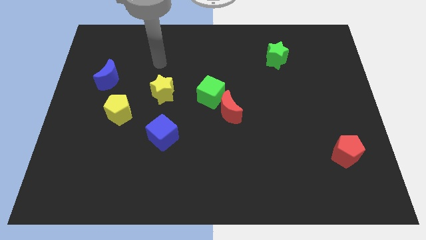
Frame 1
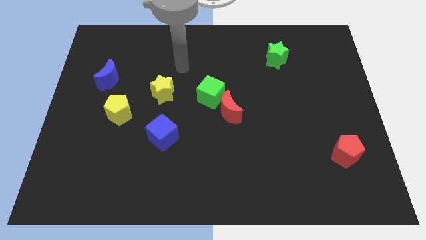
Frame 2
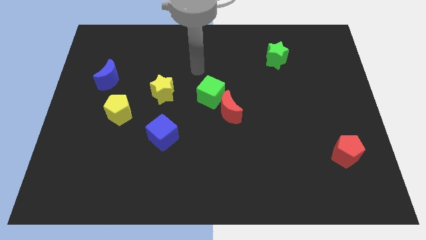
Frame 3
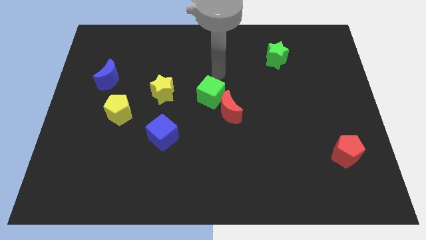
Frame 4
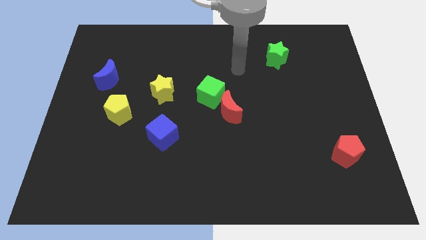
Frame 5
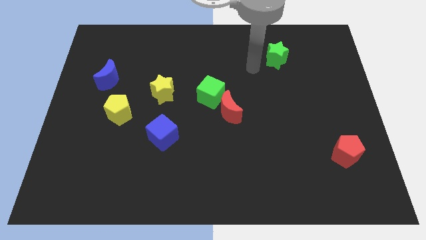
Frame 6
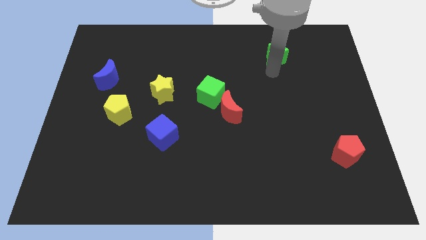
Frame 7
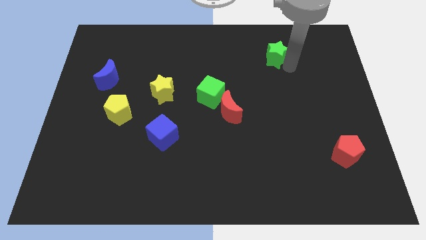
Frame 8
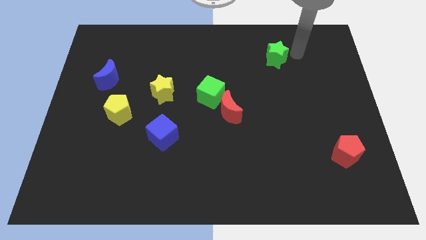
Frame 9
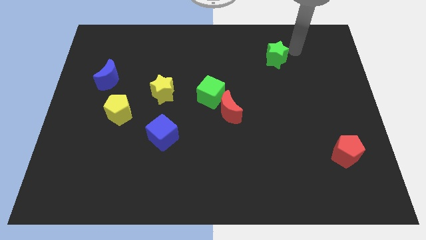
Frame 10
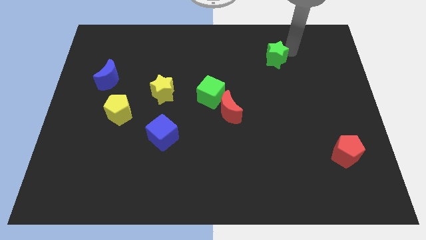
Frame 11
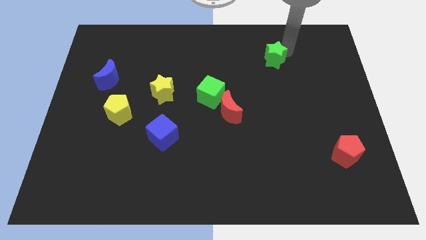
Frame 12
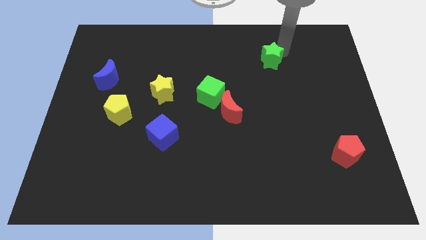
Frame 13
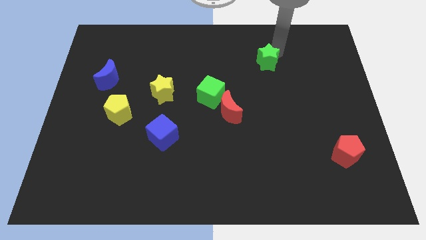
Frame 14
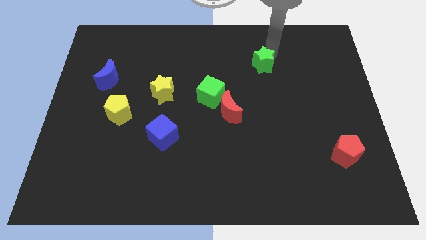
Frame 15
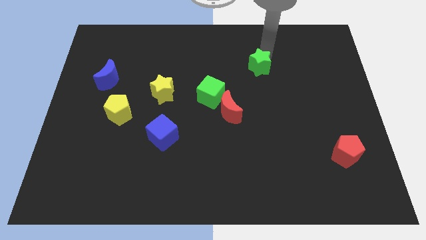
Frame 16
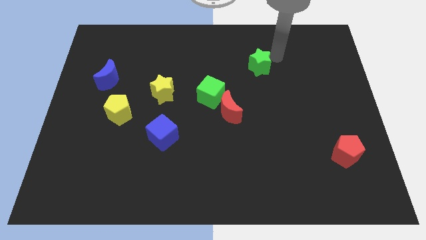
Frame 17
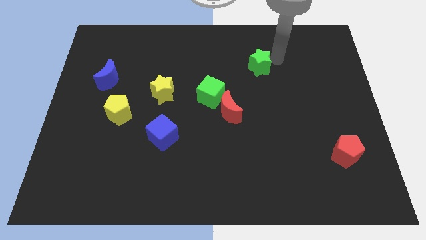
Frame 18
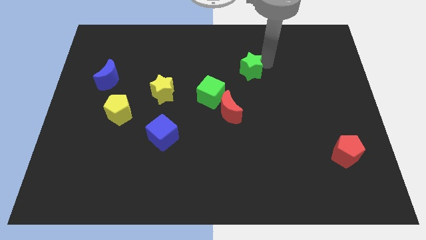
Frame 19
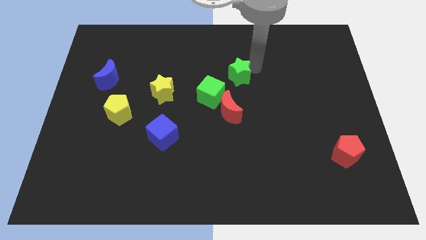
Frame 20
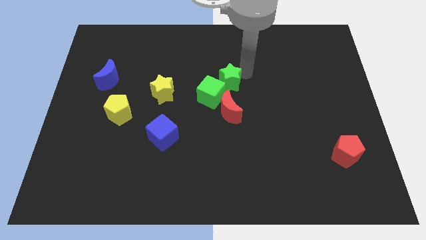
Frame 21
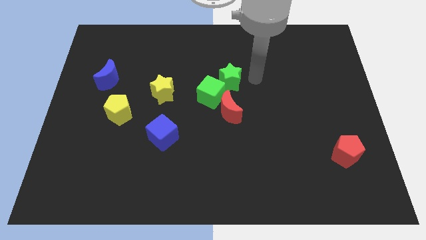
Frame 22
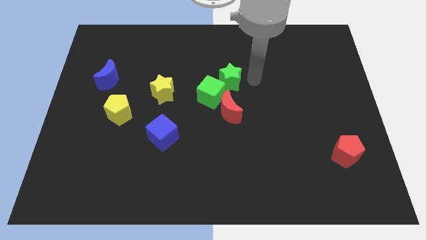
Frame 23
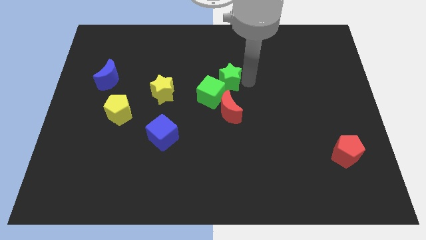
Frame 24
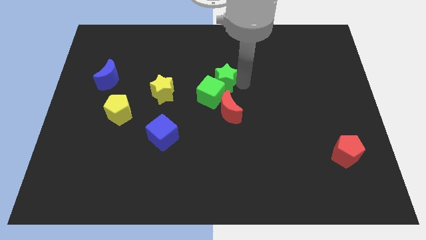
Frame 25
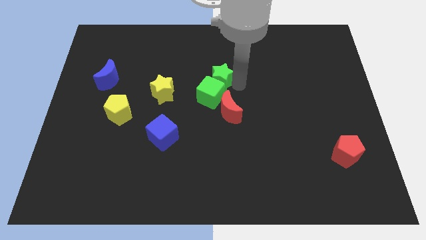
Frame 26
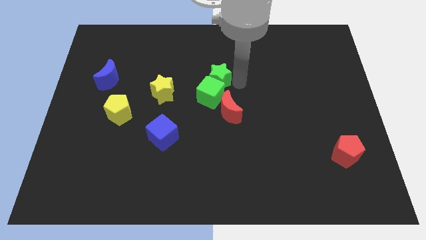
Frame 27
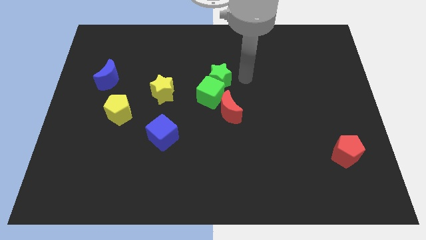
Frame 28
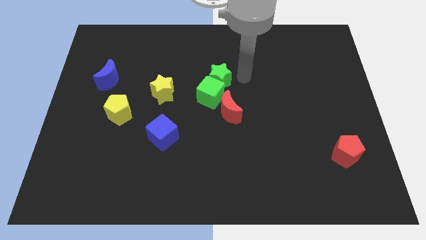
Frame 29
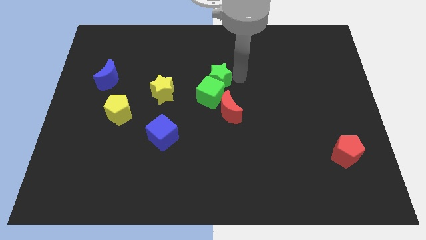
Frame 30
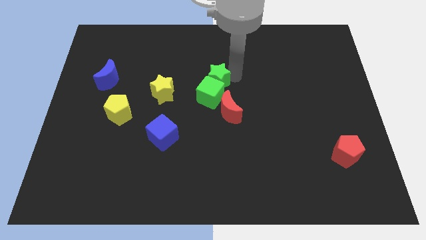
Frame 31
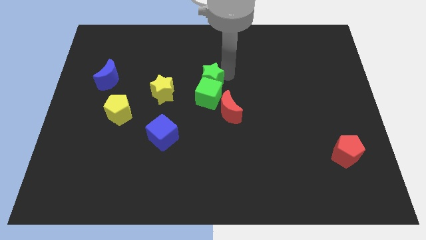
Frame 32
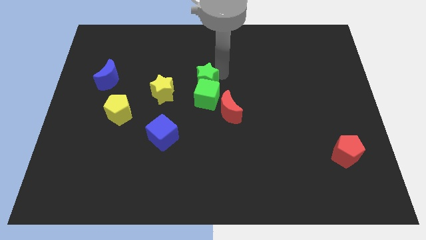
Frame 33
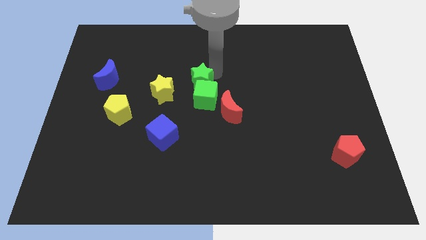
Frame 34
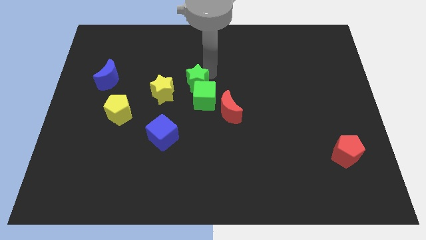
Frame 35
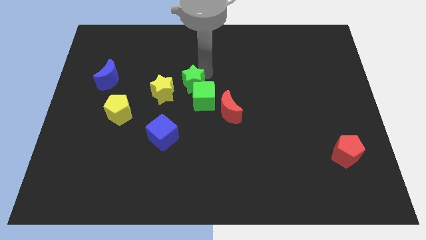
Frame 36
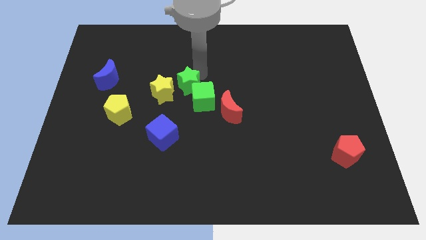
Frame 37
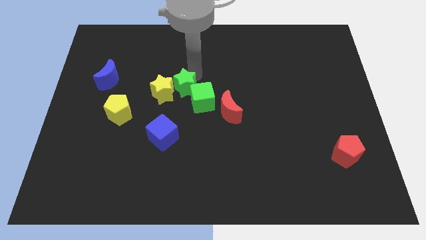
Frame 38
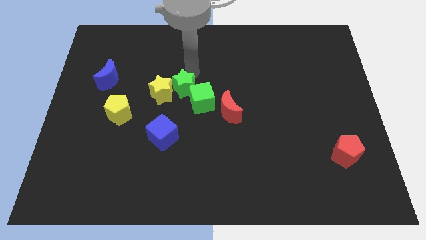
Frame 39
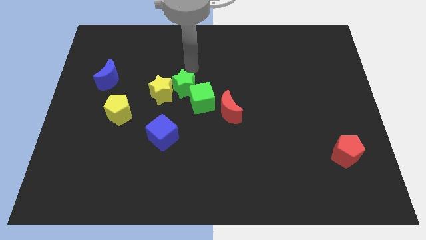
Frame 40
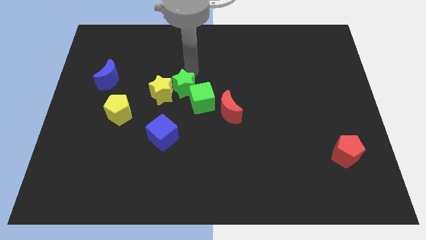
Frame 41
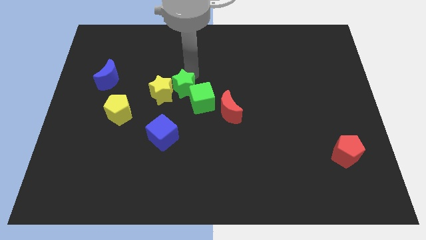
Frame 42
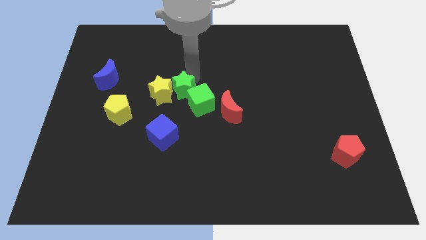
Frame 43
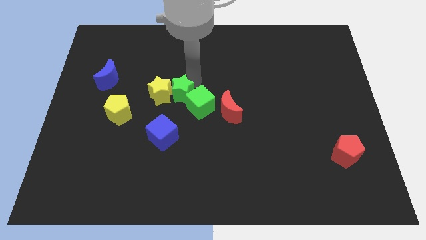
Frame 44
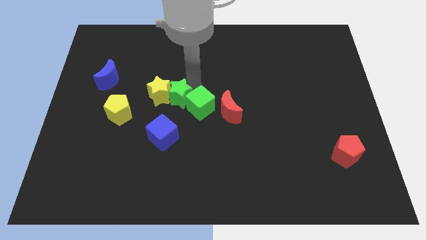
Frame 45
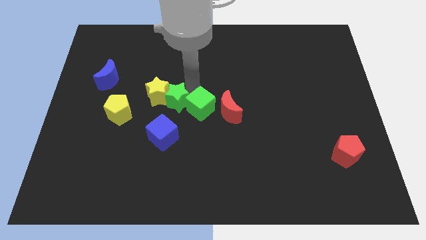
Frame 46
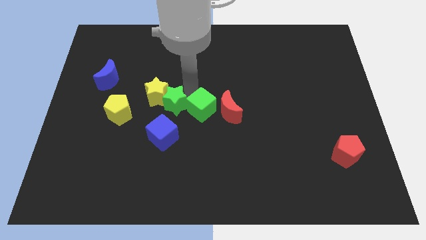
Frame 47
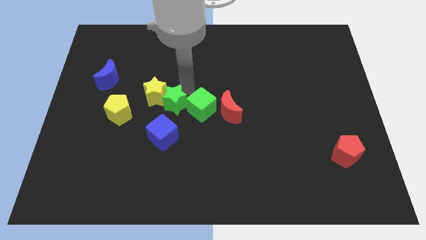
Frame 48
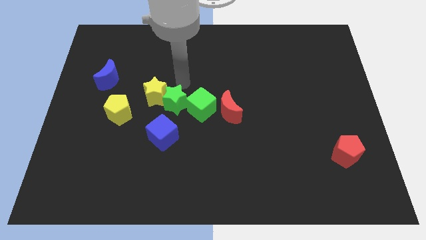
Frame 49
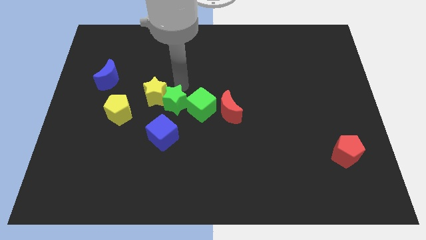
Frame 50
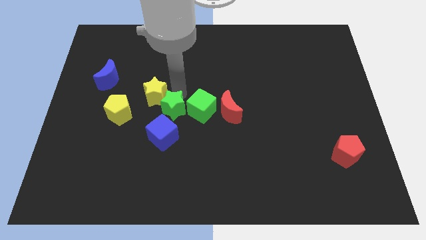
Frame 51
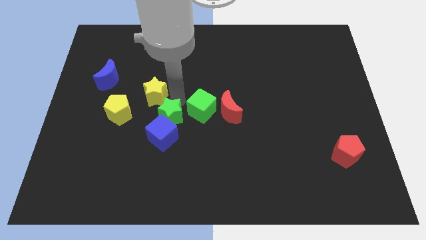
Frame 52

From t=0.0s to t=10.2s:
put the green star close to the blue cube

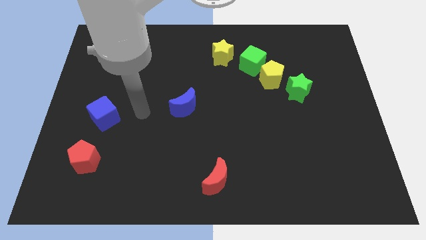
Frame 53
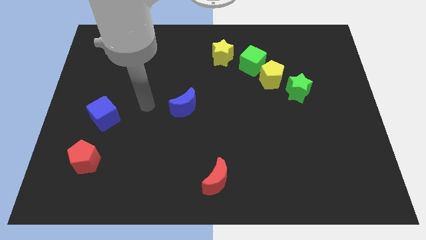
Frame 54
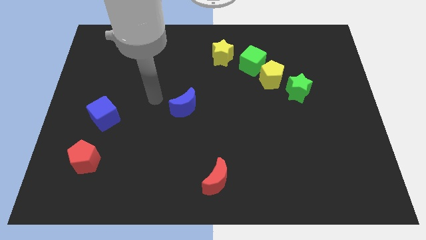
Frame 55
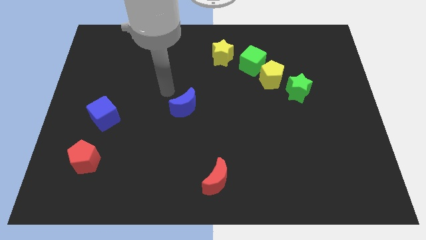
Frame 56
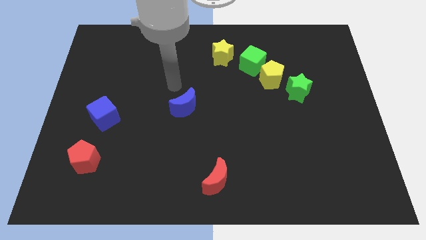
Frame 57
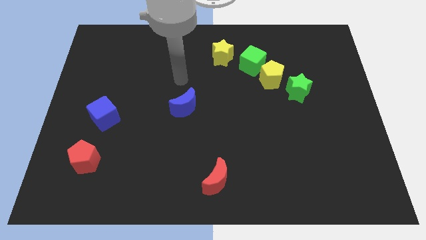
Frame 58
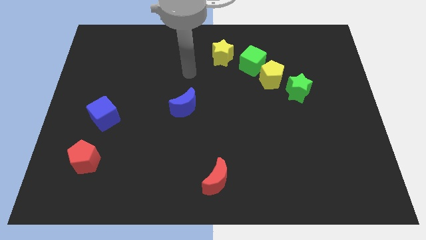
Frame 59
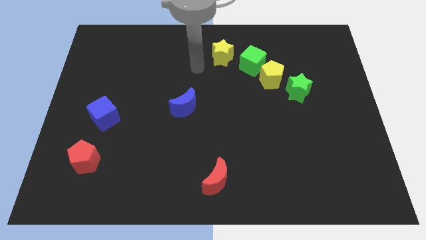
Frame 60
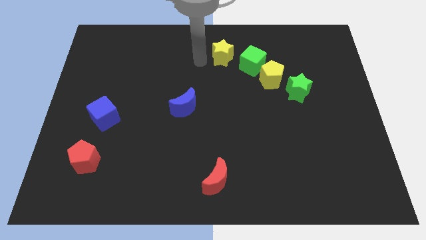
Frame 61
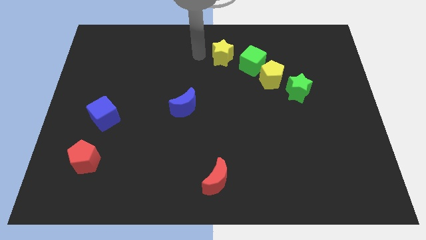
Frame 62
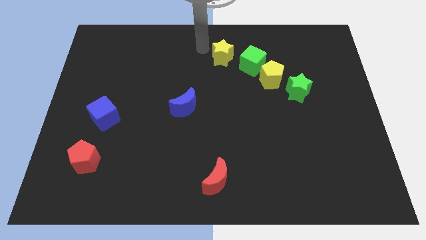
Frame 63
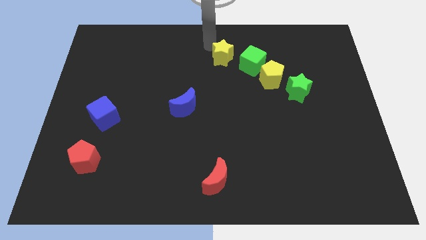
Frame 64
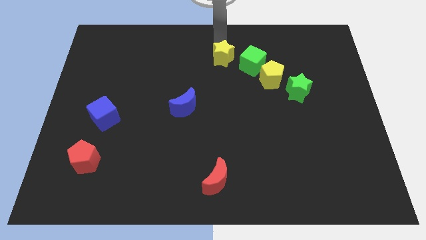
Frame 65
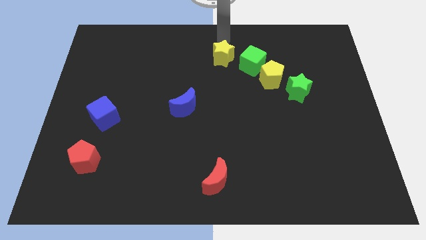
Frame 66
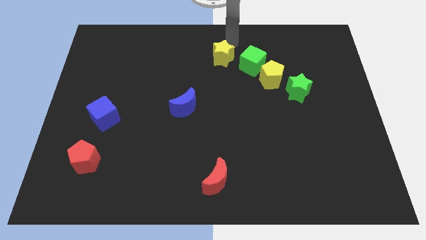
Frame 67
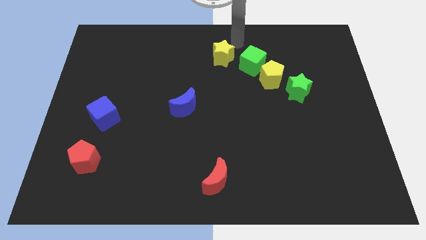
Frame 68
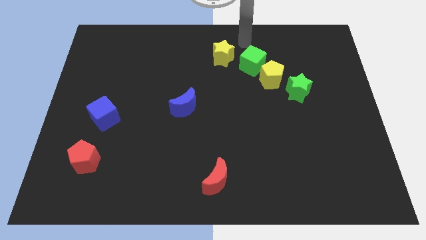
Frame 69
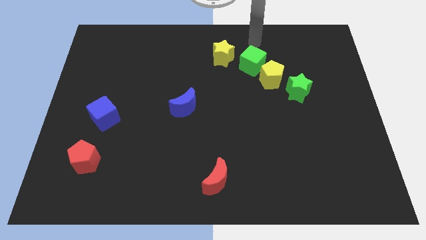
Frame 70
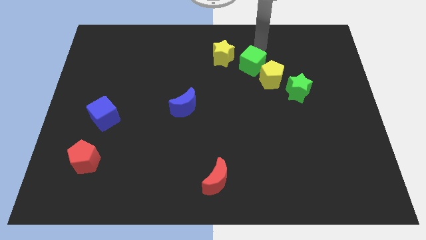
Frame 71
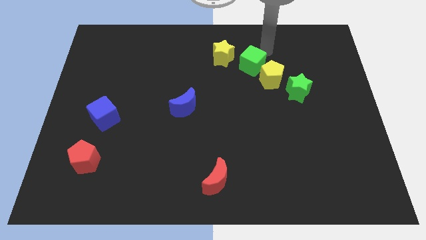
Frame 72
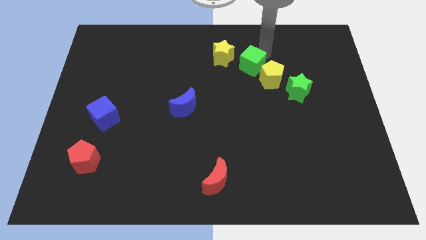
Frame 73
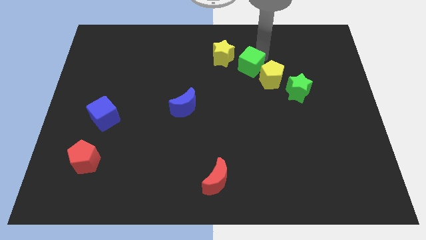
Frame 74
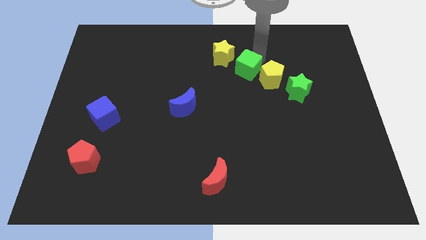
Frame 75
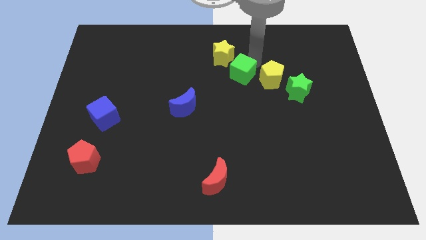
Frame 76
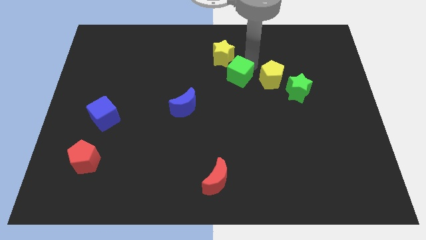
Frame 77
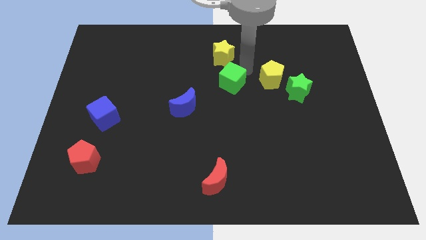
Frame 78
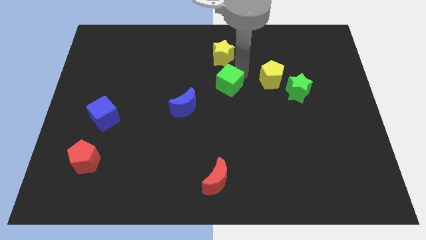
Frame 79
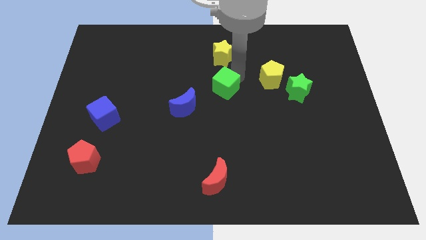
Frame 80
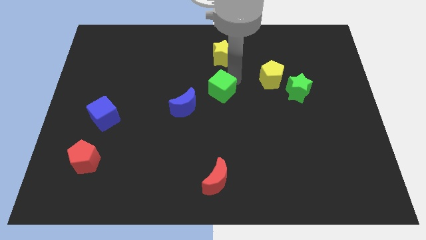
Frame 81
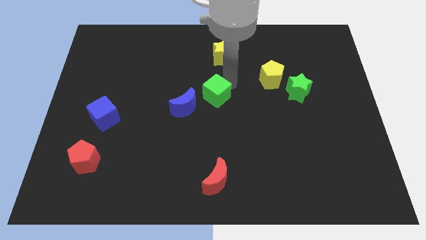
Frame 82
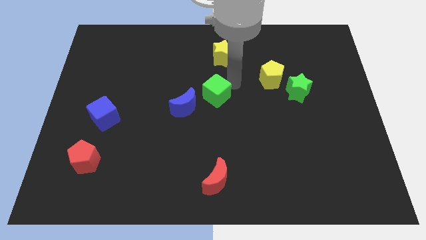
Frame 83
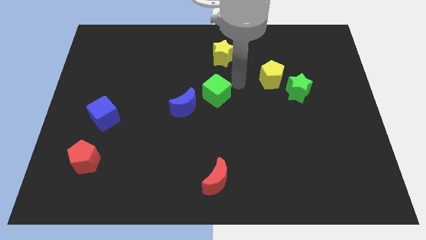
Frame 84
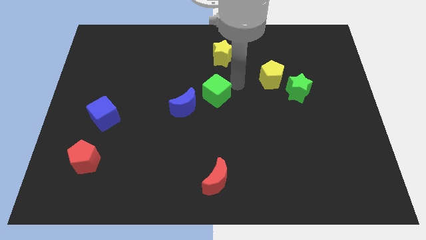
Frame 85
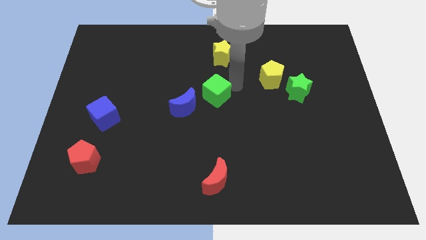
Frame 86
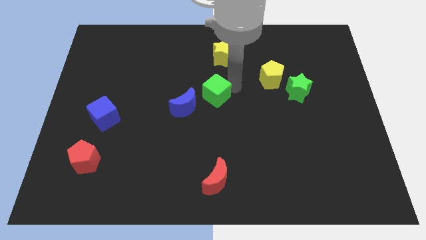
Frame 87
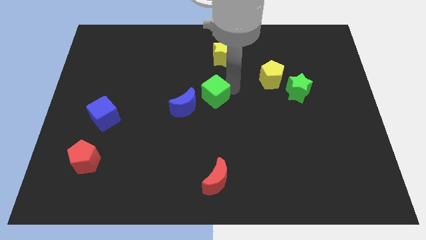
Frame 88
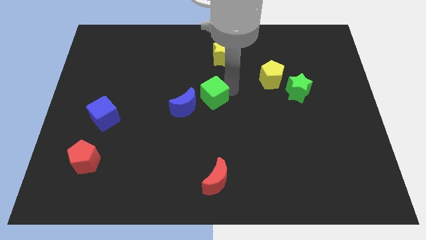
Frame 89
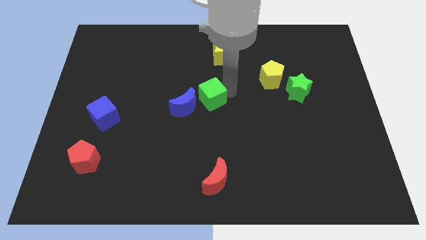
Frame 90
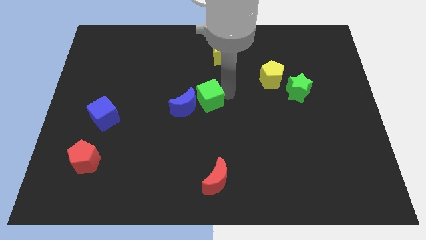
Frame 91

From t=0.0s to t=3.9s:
move the green cube to the blue moon
